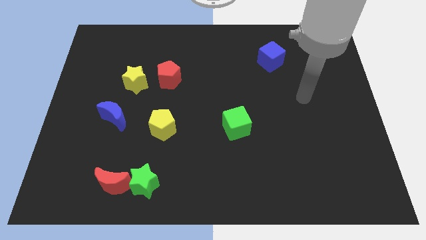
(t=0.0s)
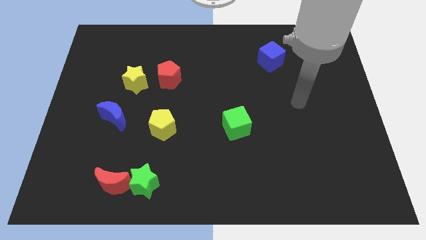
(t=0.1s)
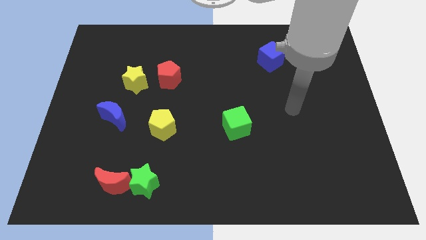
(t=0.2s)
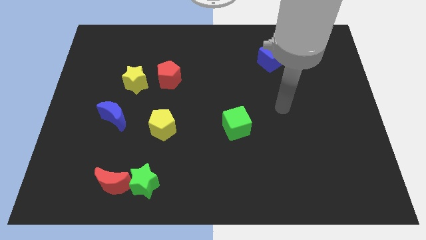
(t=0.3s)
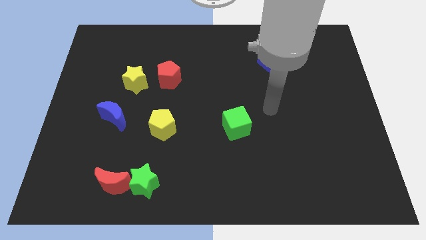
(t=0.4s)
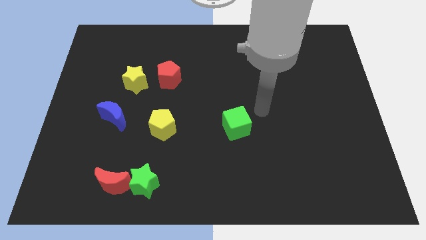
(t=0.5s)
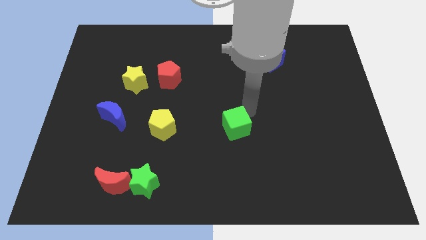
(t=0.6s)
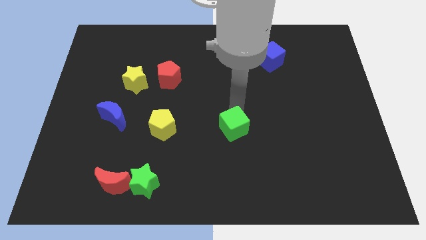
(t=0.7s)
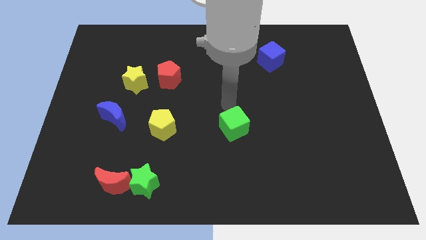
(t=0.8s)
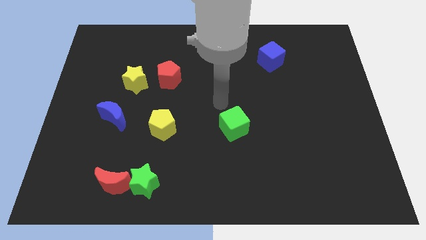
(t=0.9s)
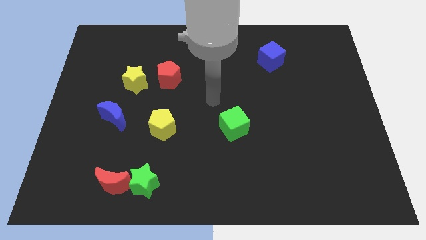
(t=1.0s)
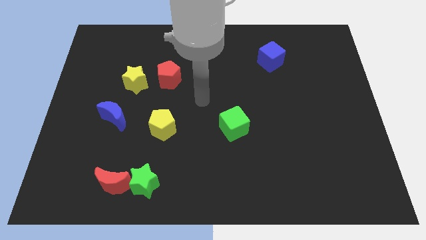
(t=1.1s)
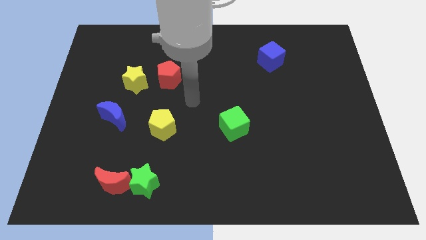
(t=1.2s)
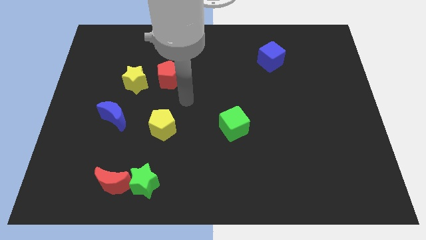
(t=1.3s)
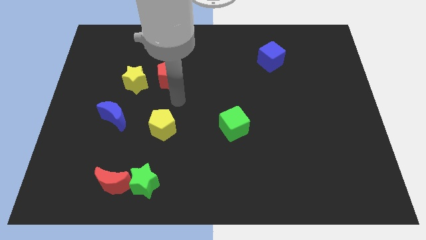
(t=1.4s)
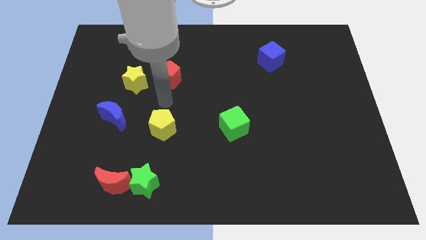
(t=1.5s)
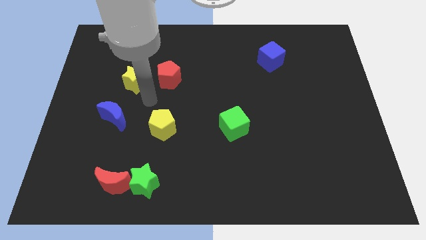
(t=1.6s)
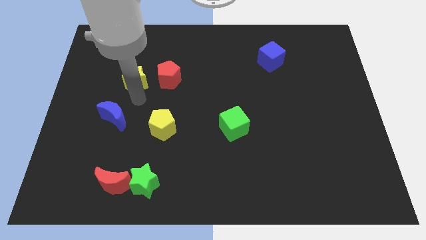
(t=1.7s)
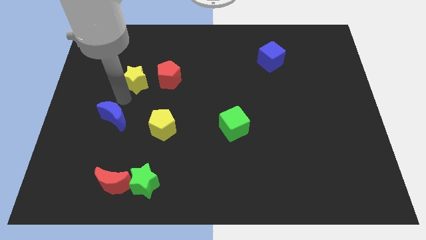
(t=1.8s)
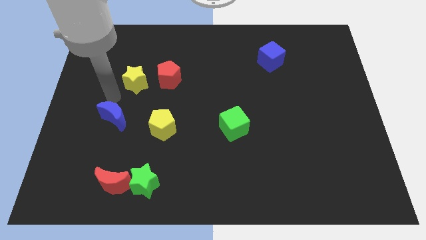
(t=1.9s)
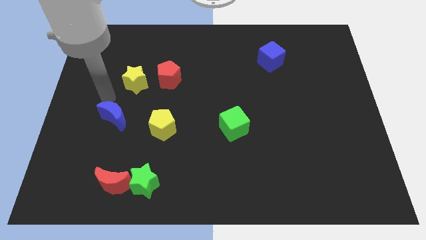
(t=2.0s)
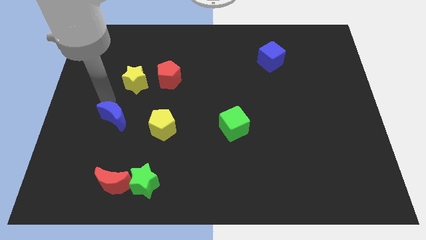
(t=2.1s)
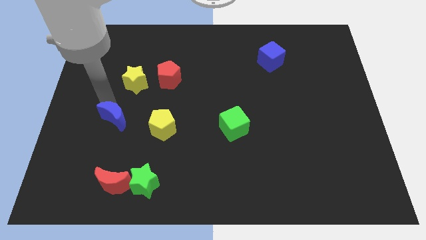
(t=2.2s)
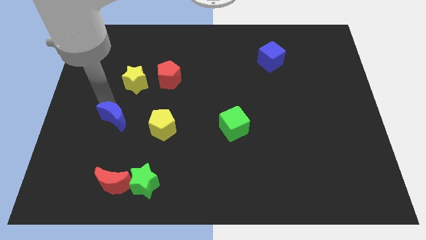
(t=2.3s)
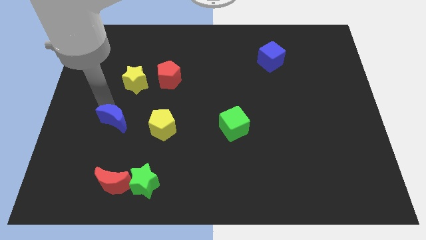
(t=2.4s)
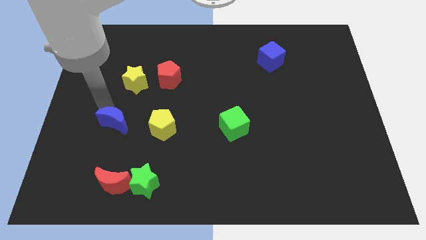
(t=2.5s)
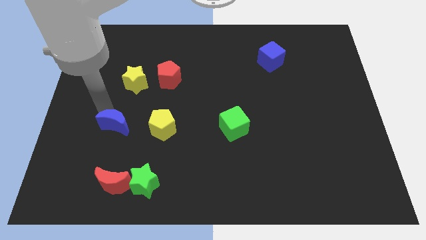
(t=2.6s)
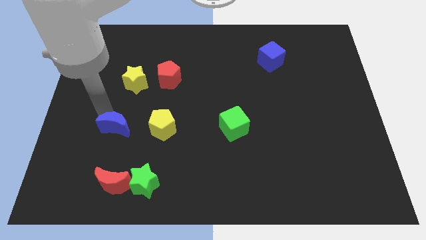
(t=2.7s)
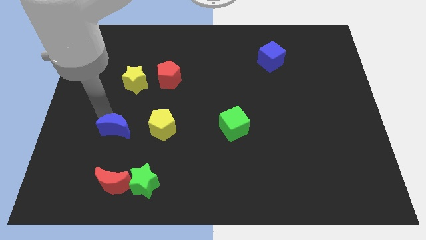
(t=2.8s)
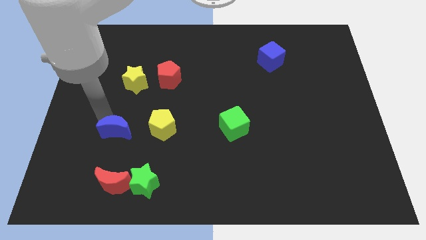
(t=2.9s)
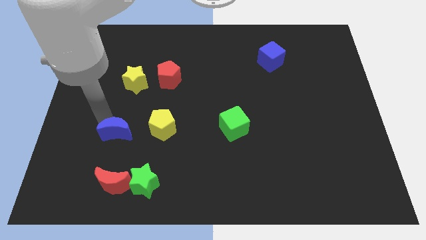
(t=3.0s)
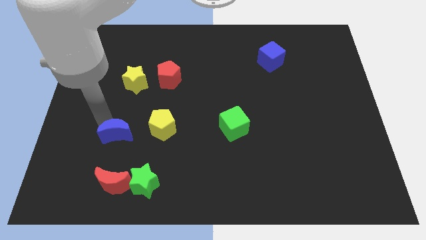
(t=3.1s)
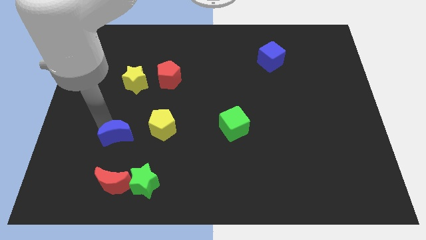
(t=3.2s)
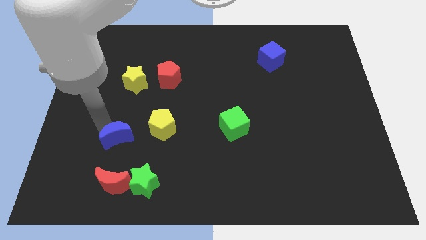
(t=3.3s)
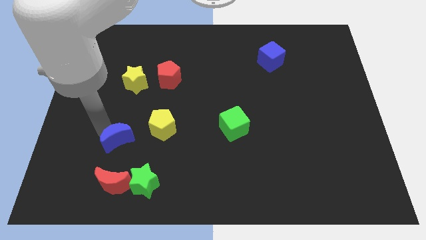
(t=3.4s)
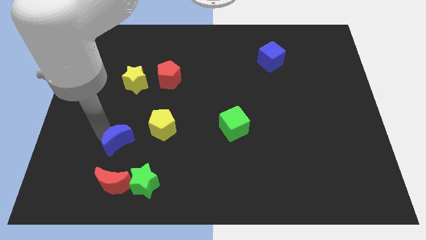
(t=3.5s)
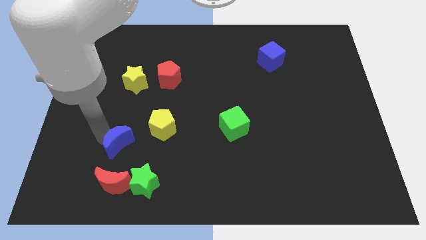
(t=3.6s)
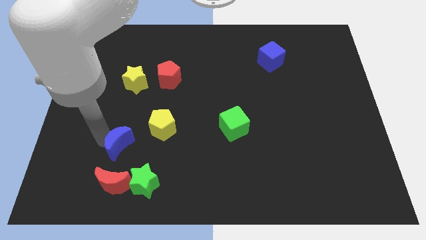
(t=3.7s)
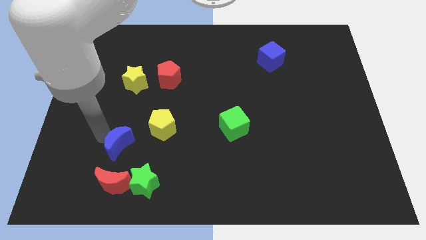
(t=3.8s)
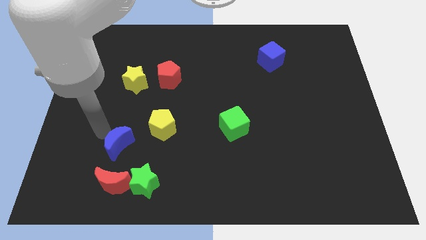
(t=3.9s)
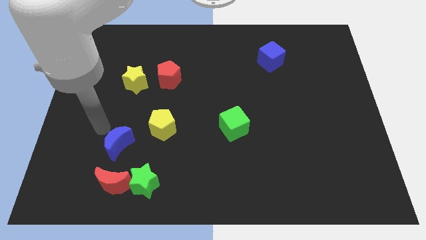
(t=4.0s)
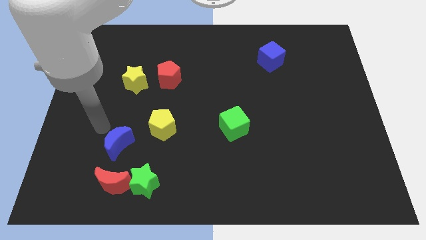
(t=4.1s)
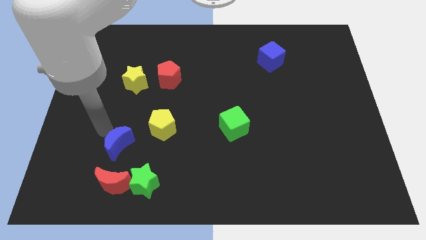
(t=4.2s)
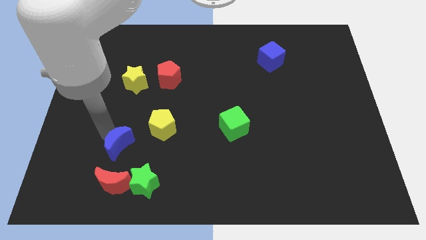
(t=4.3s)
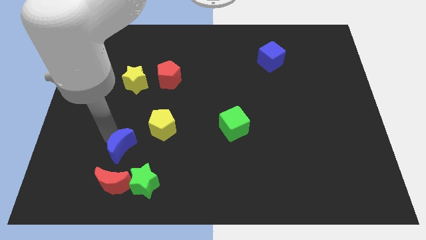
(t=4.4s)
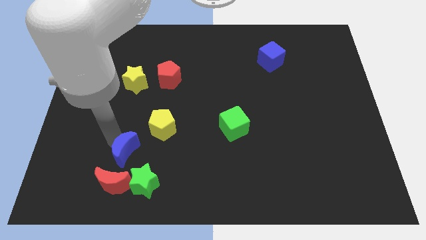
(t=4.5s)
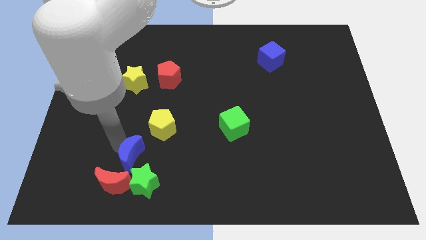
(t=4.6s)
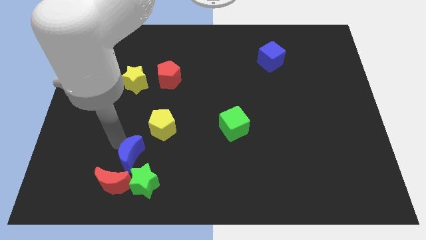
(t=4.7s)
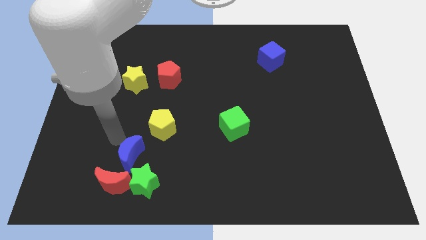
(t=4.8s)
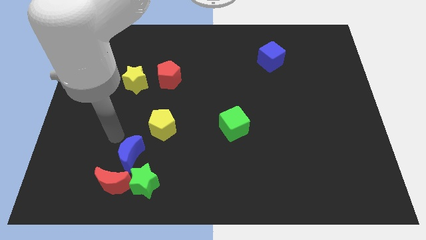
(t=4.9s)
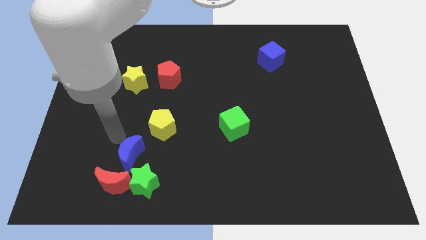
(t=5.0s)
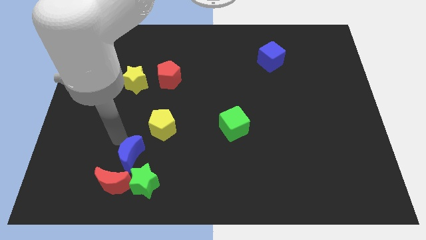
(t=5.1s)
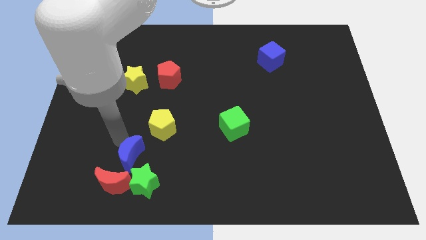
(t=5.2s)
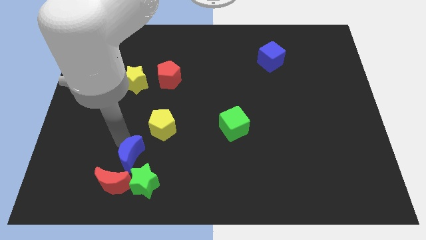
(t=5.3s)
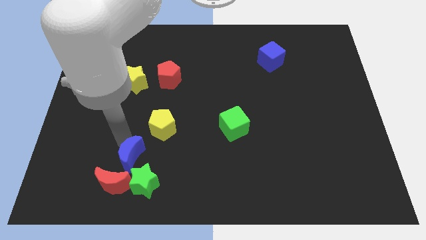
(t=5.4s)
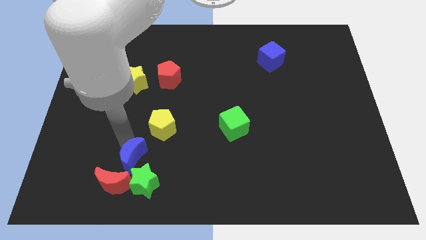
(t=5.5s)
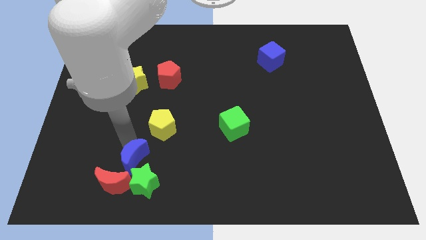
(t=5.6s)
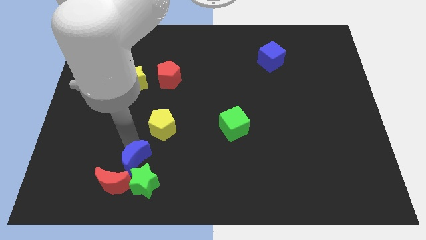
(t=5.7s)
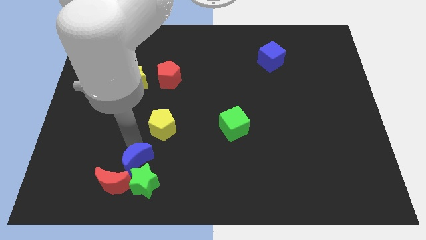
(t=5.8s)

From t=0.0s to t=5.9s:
slide the blue moon close to the green star

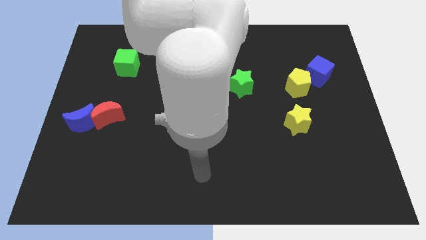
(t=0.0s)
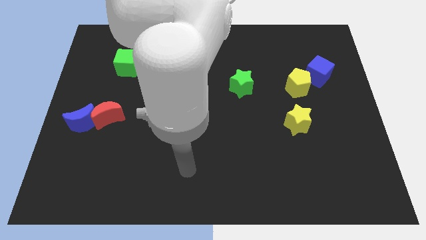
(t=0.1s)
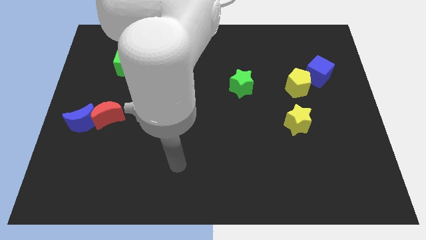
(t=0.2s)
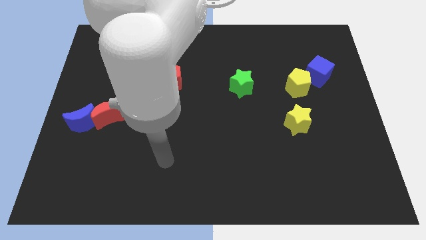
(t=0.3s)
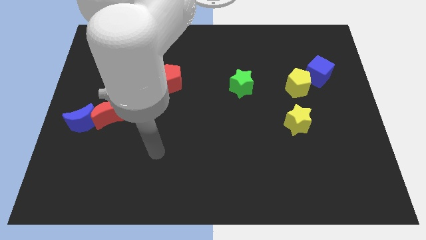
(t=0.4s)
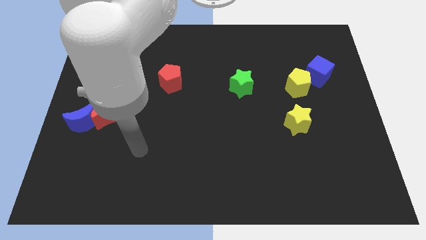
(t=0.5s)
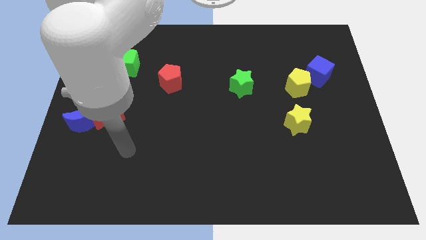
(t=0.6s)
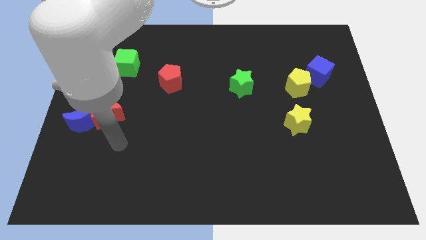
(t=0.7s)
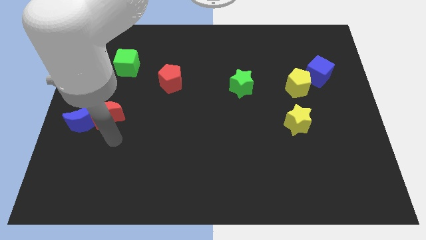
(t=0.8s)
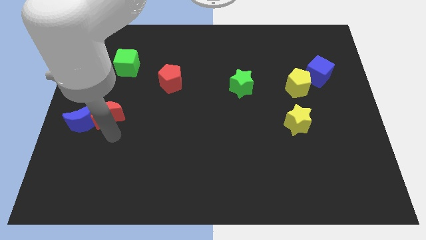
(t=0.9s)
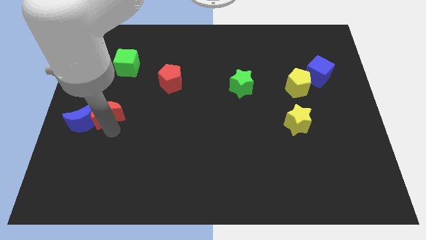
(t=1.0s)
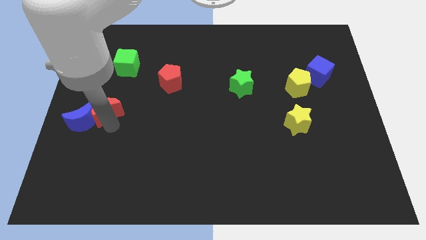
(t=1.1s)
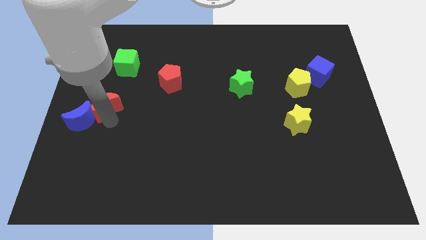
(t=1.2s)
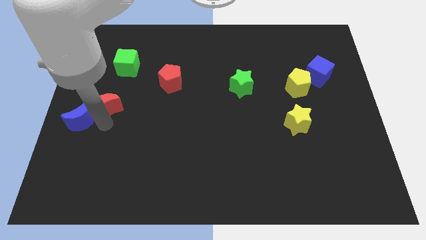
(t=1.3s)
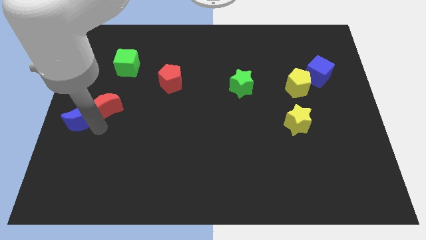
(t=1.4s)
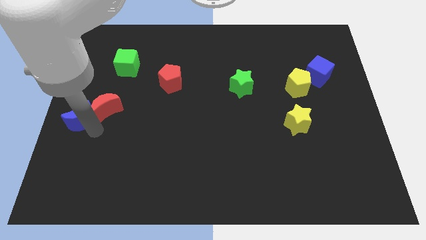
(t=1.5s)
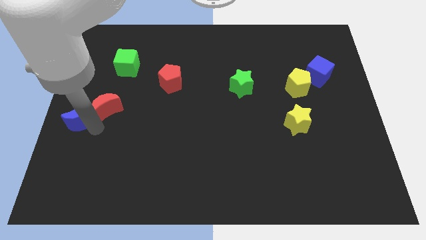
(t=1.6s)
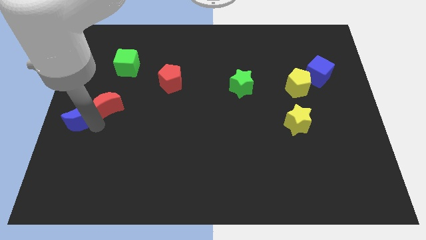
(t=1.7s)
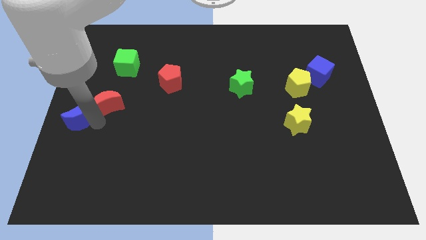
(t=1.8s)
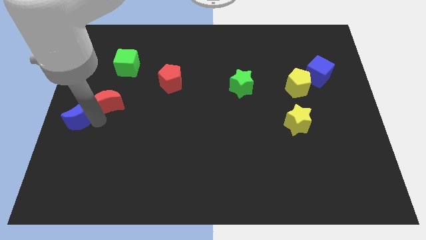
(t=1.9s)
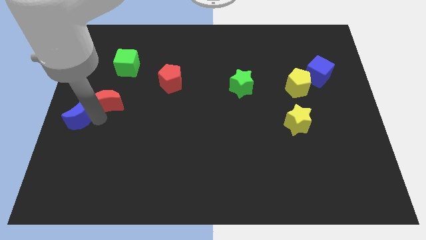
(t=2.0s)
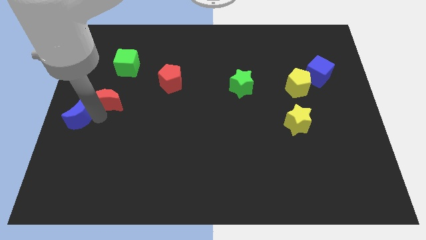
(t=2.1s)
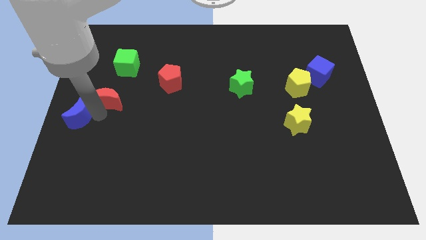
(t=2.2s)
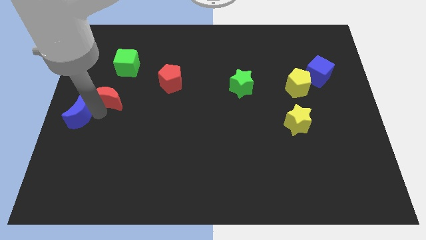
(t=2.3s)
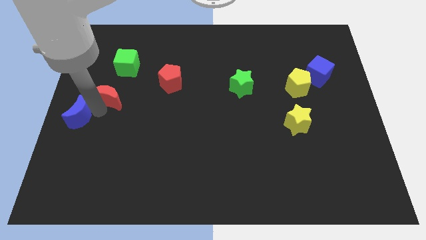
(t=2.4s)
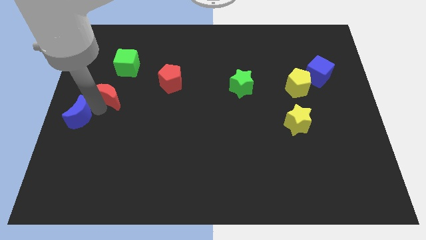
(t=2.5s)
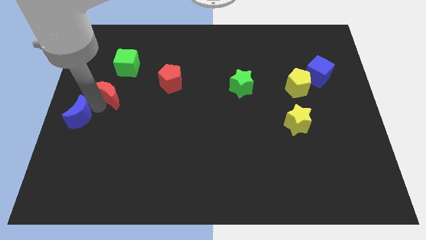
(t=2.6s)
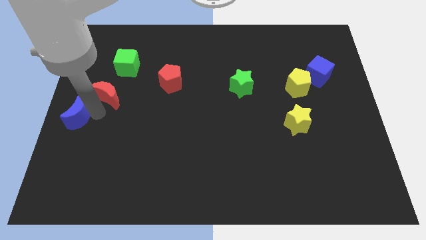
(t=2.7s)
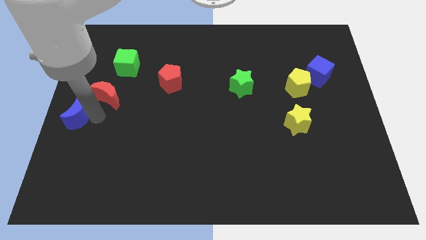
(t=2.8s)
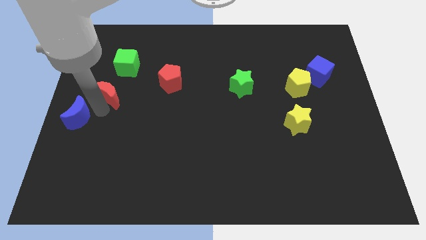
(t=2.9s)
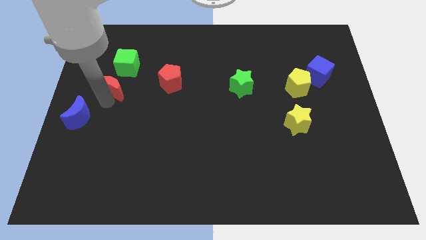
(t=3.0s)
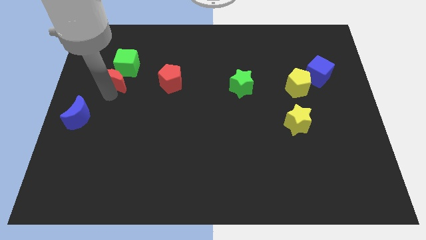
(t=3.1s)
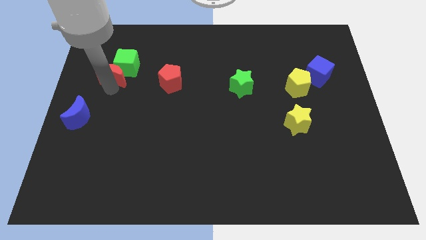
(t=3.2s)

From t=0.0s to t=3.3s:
move the red moon to the green cube
